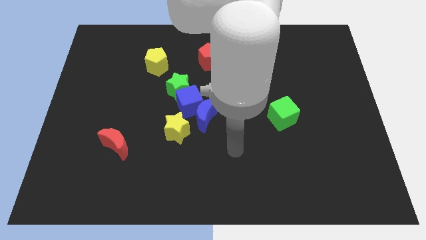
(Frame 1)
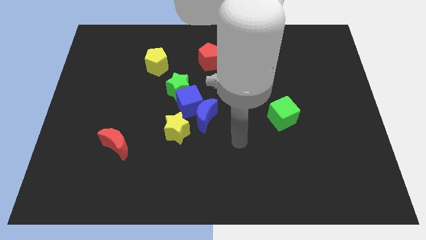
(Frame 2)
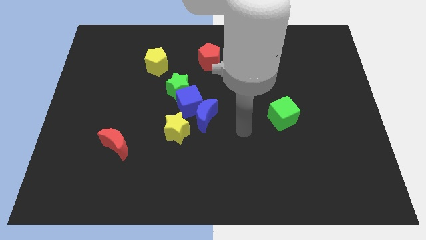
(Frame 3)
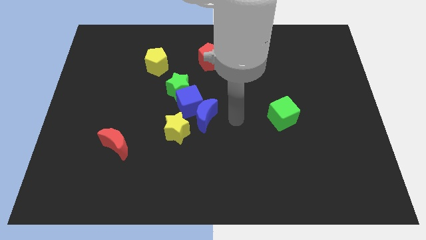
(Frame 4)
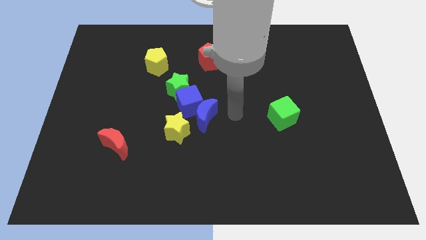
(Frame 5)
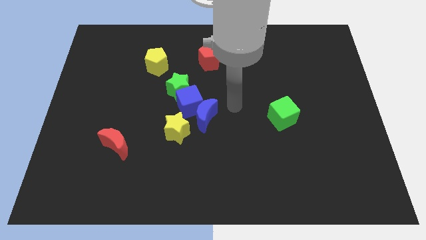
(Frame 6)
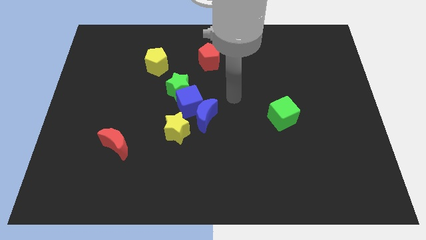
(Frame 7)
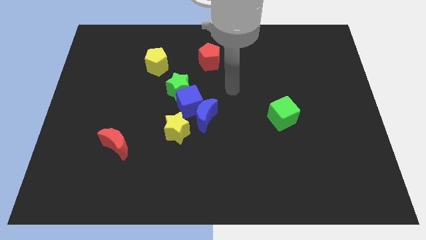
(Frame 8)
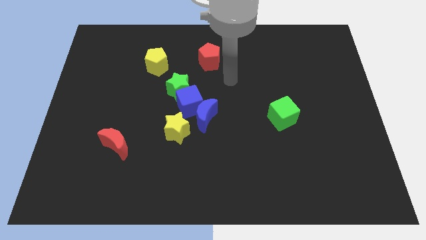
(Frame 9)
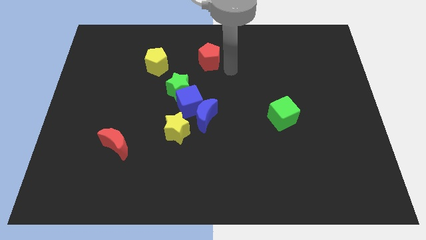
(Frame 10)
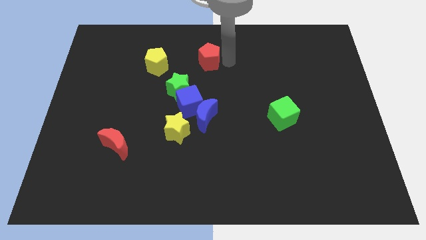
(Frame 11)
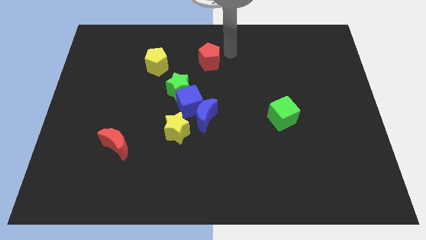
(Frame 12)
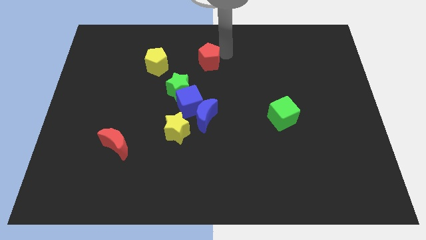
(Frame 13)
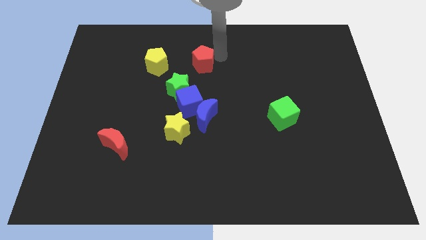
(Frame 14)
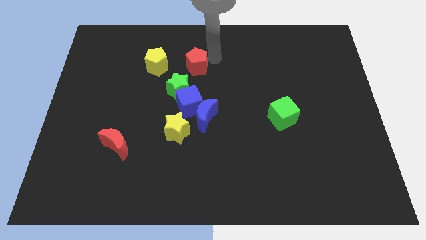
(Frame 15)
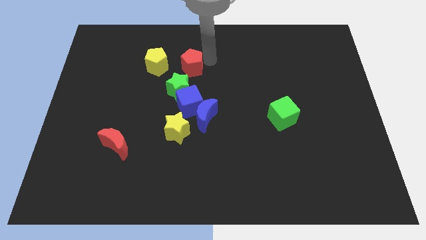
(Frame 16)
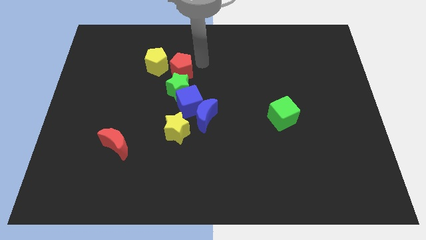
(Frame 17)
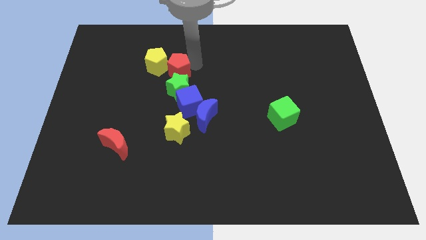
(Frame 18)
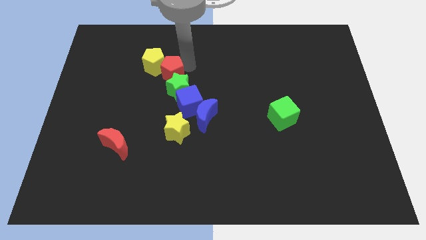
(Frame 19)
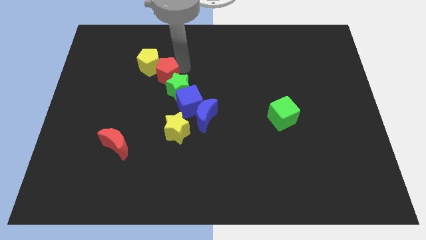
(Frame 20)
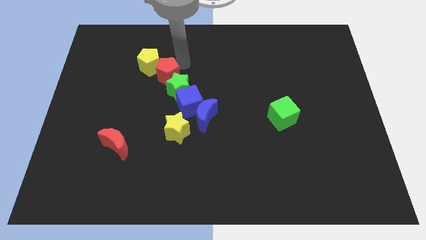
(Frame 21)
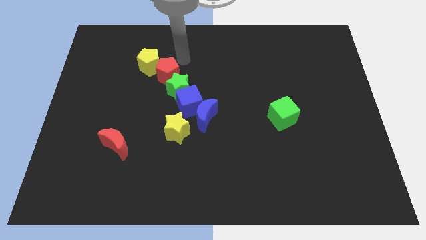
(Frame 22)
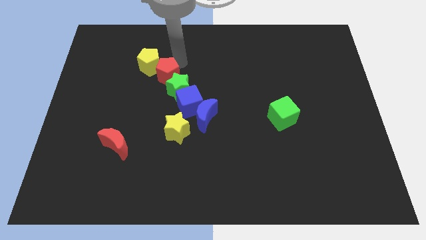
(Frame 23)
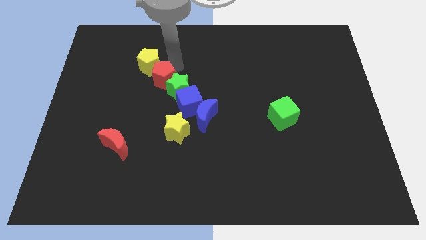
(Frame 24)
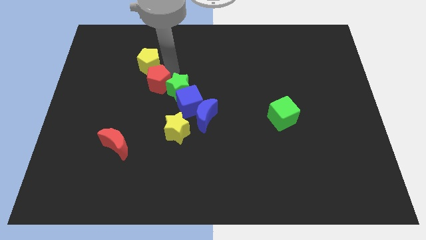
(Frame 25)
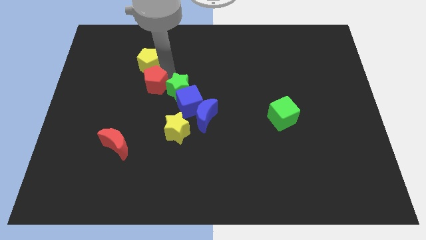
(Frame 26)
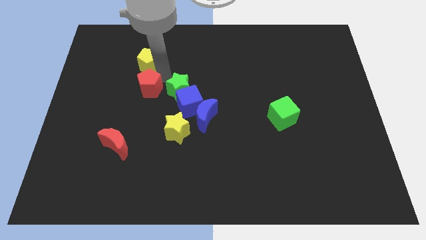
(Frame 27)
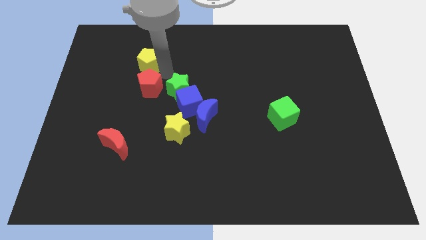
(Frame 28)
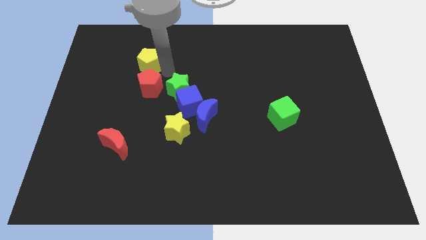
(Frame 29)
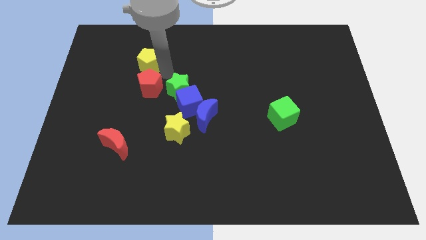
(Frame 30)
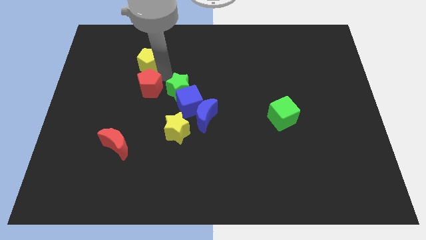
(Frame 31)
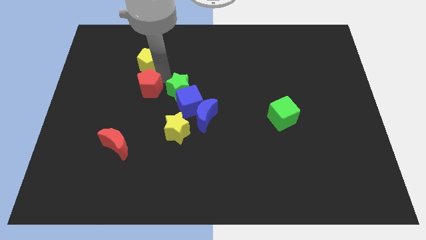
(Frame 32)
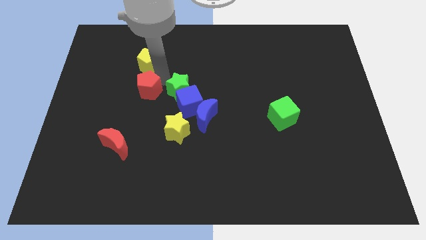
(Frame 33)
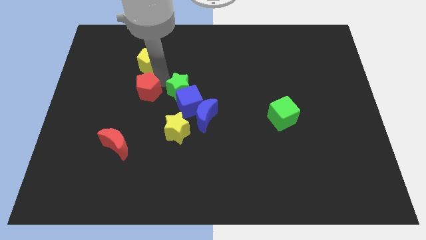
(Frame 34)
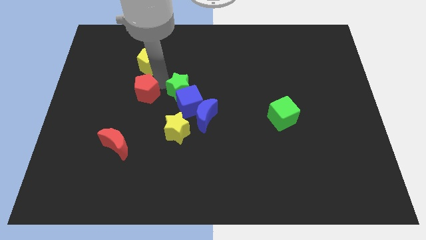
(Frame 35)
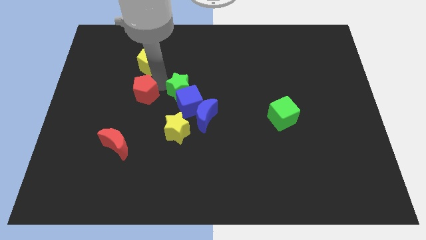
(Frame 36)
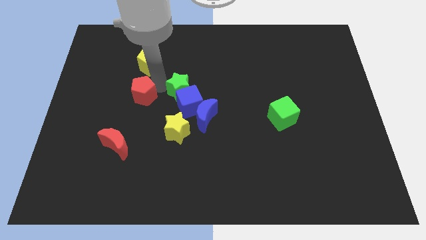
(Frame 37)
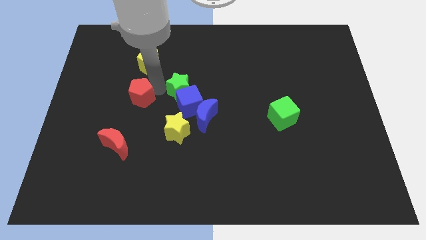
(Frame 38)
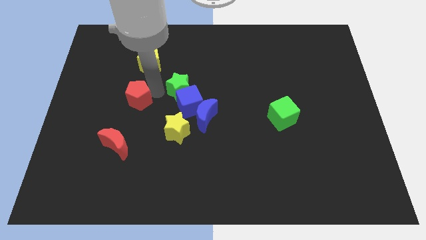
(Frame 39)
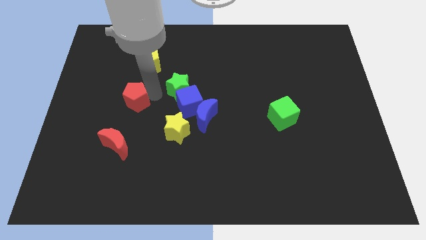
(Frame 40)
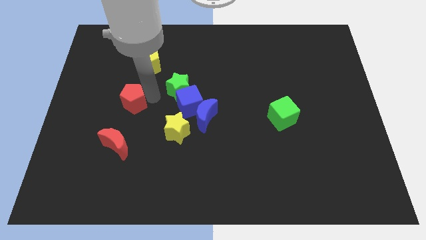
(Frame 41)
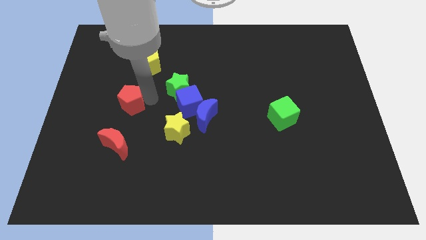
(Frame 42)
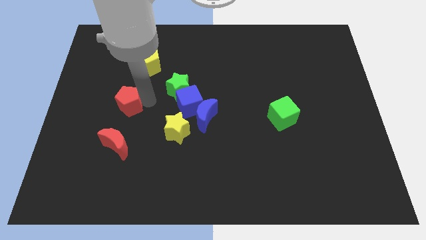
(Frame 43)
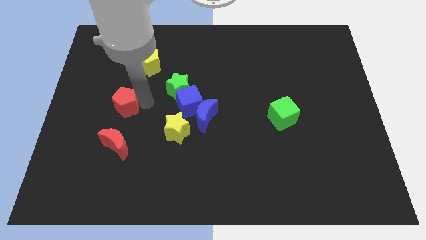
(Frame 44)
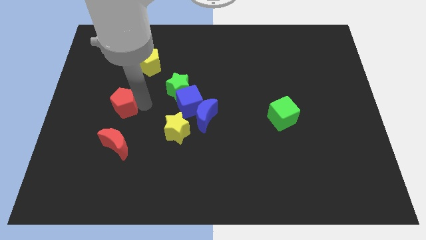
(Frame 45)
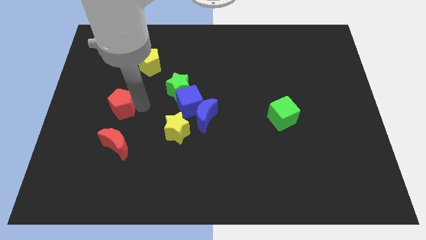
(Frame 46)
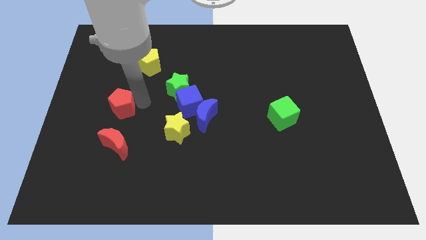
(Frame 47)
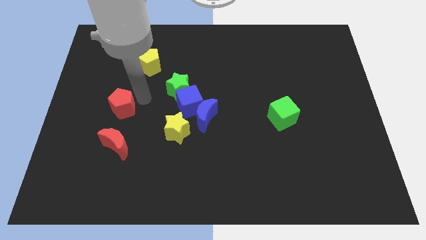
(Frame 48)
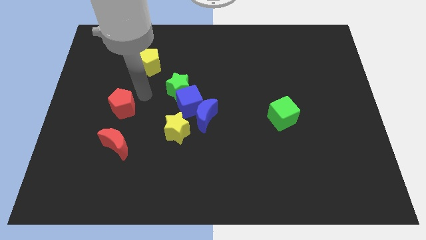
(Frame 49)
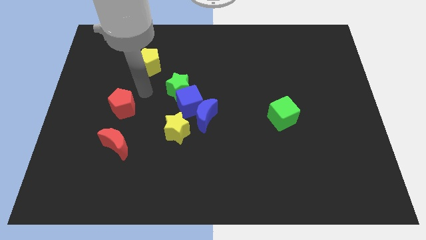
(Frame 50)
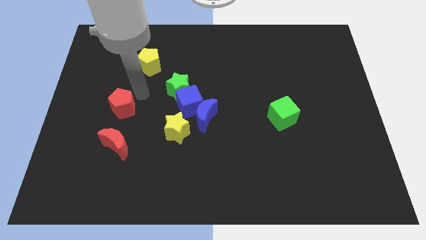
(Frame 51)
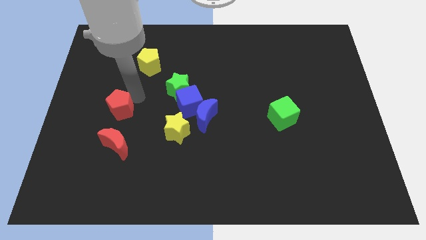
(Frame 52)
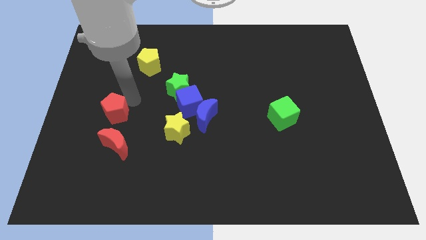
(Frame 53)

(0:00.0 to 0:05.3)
put the red pentagon to the top left side of the red moon

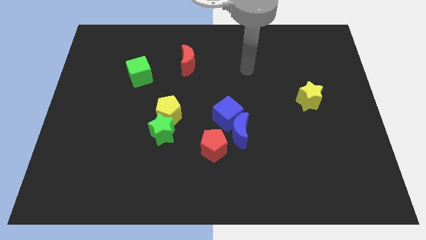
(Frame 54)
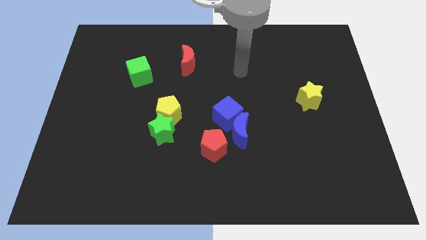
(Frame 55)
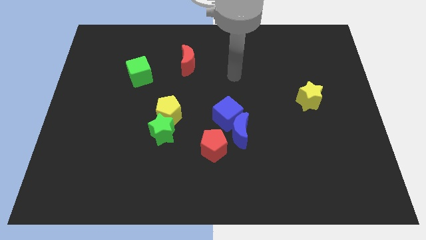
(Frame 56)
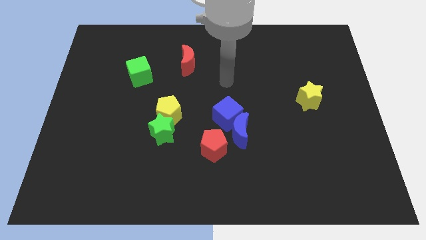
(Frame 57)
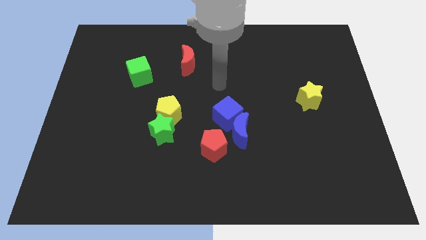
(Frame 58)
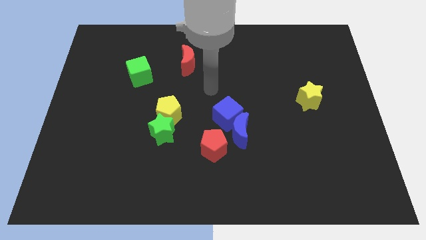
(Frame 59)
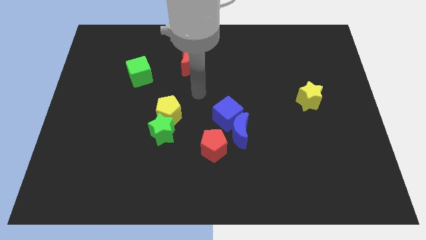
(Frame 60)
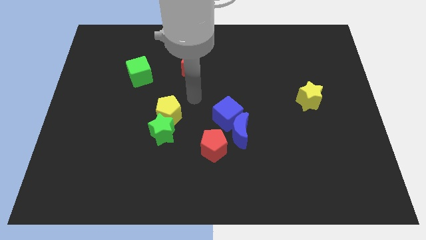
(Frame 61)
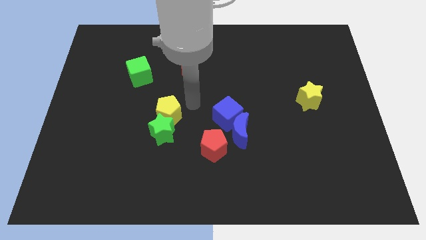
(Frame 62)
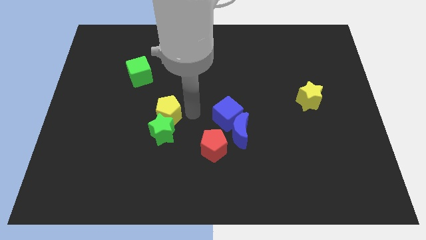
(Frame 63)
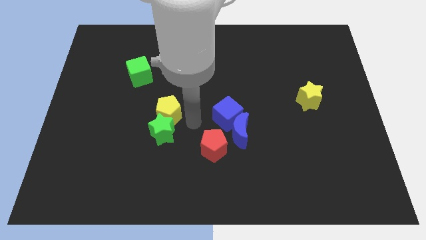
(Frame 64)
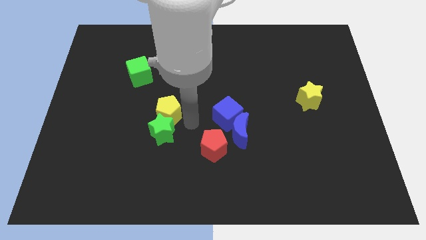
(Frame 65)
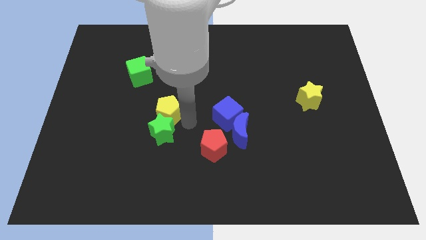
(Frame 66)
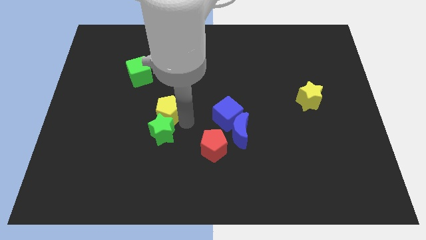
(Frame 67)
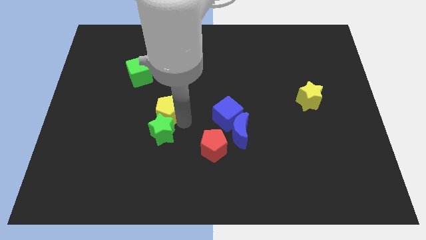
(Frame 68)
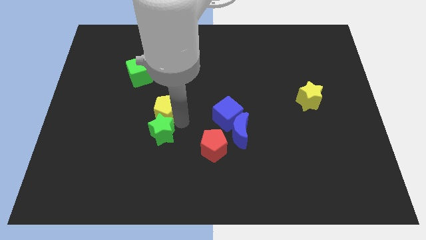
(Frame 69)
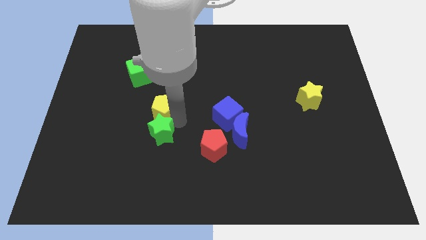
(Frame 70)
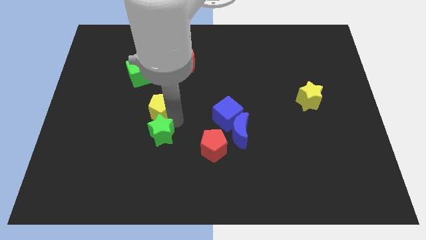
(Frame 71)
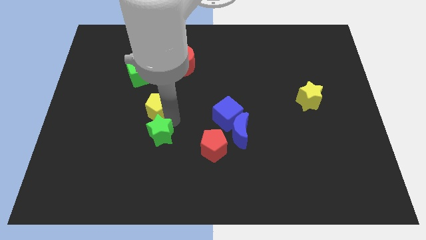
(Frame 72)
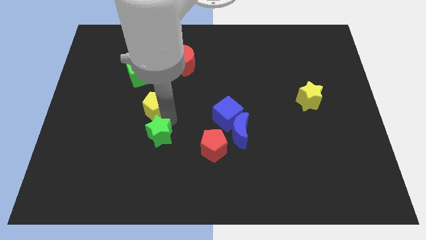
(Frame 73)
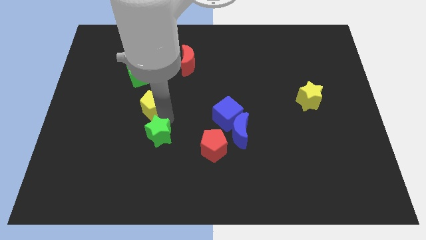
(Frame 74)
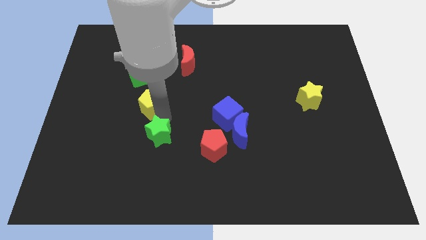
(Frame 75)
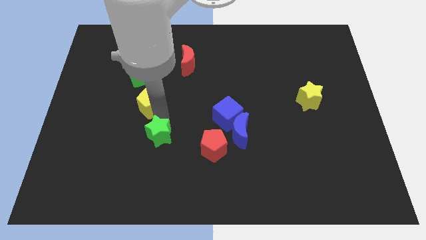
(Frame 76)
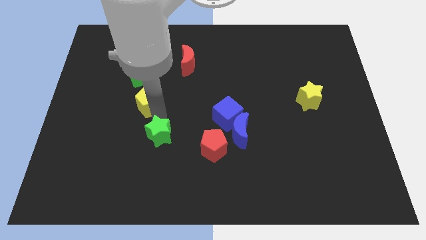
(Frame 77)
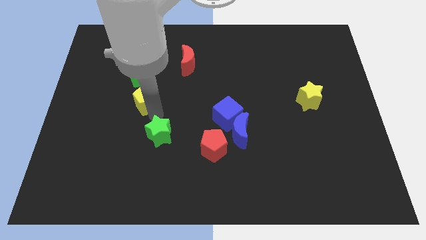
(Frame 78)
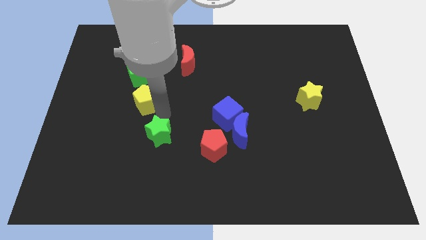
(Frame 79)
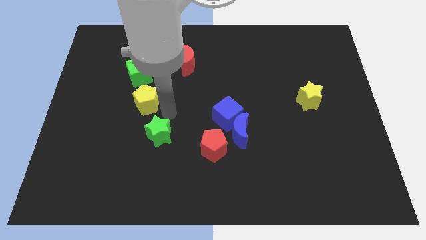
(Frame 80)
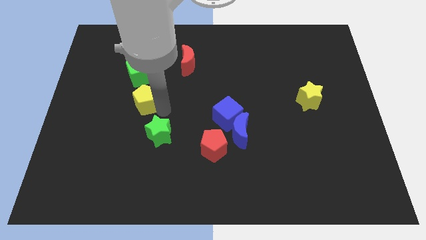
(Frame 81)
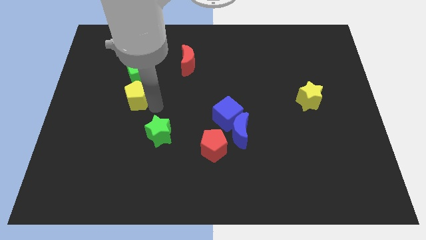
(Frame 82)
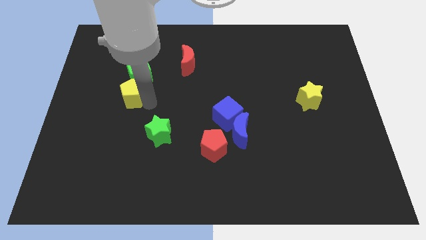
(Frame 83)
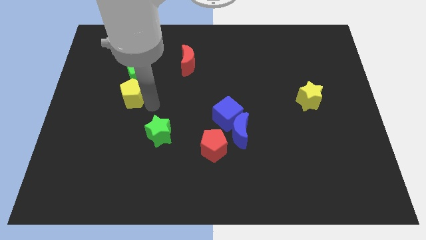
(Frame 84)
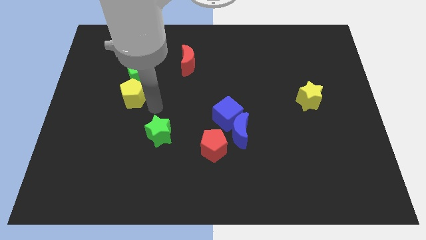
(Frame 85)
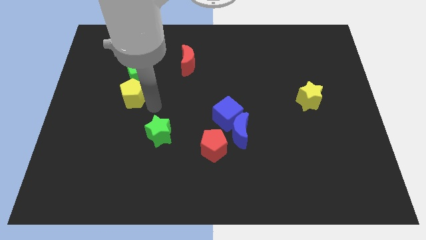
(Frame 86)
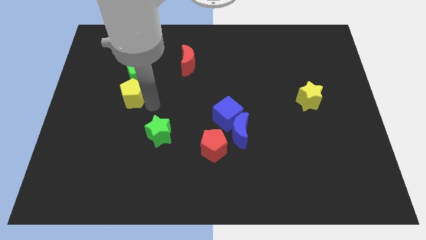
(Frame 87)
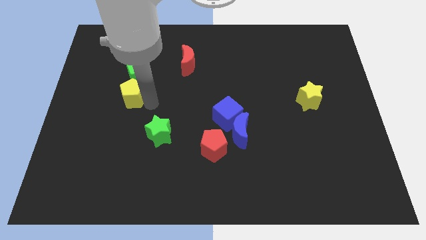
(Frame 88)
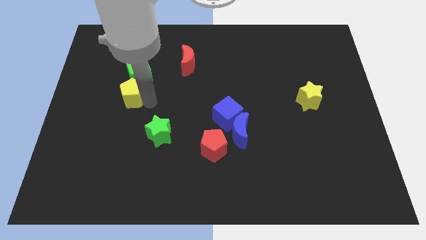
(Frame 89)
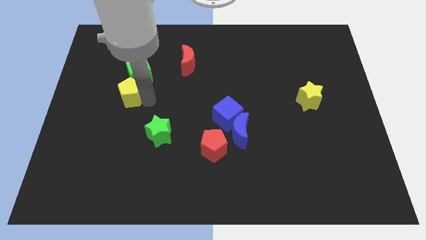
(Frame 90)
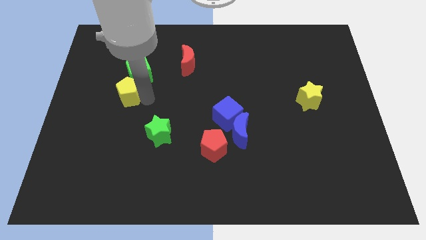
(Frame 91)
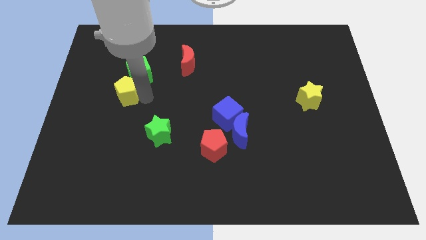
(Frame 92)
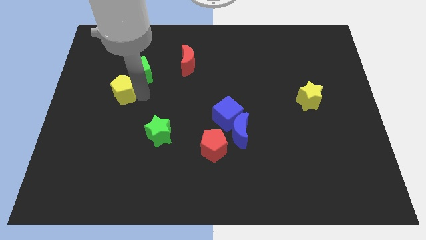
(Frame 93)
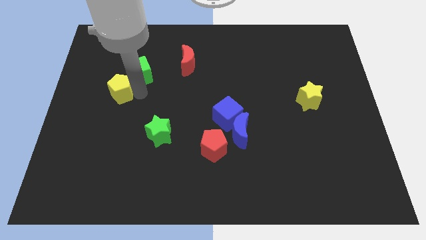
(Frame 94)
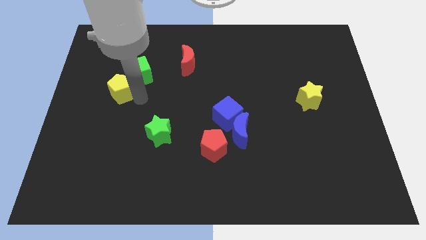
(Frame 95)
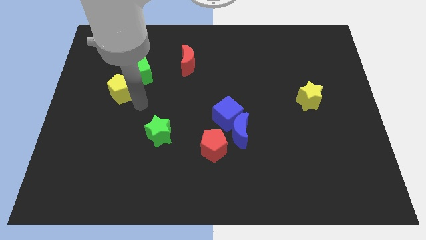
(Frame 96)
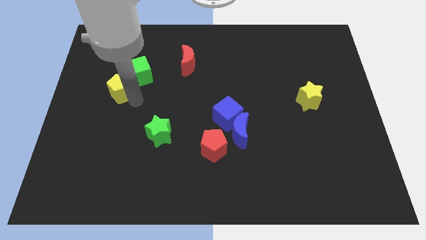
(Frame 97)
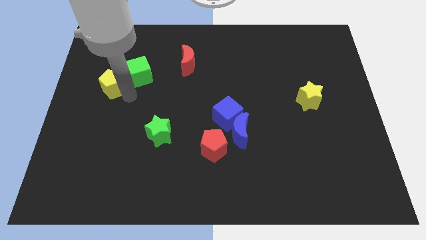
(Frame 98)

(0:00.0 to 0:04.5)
push the yellow pentagon left of the green cube
